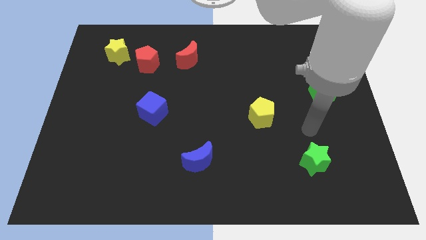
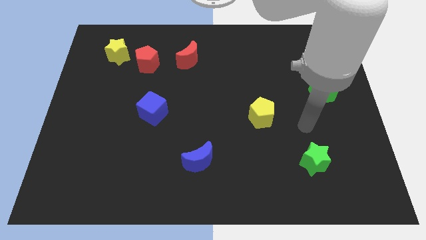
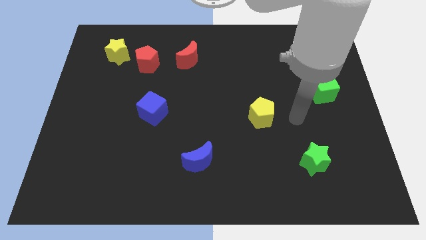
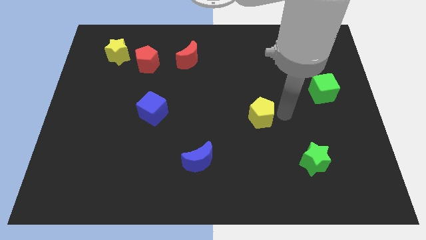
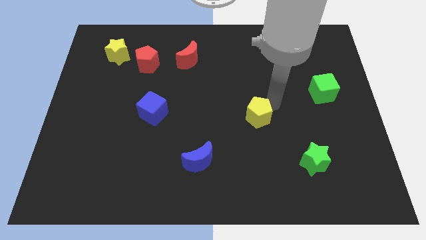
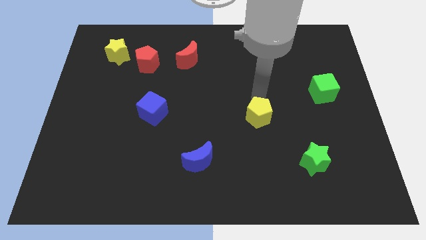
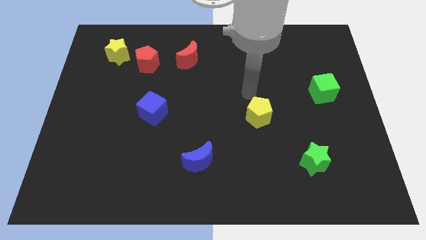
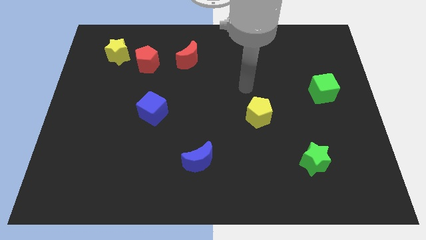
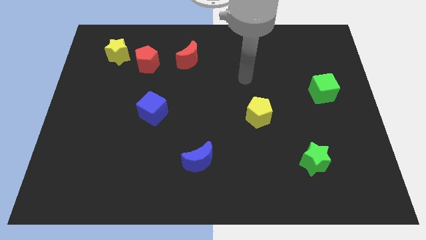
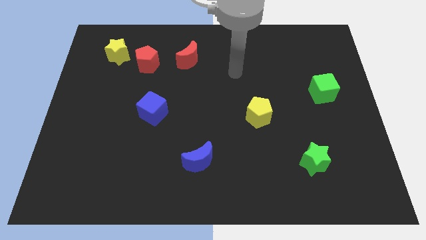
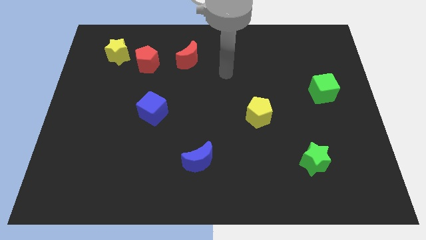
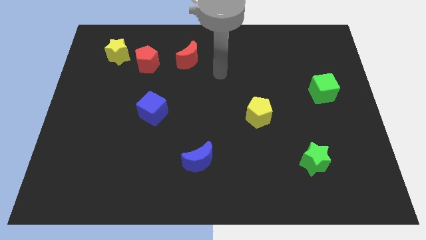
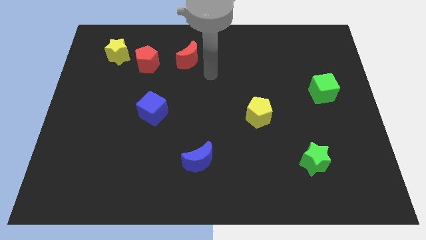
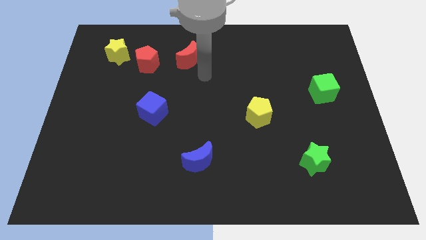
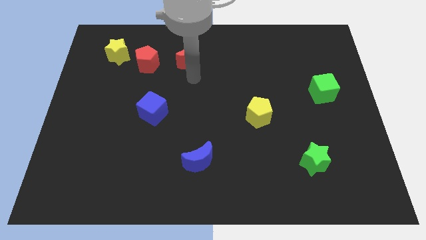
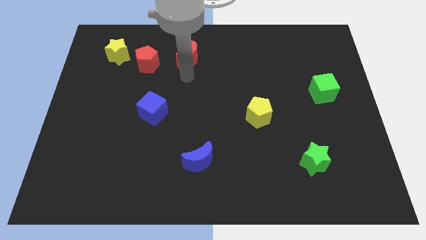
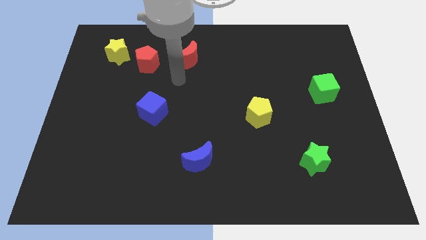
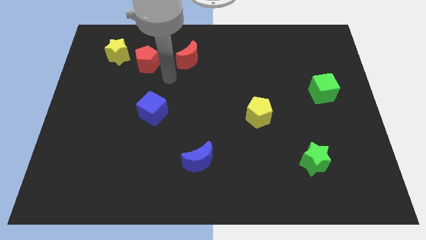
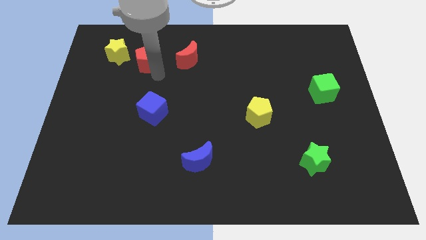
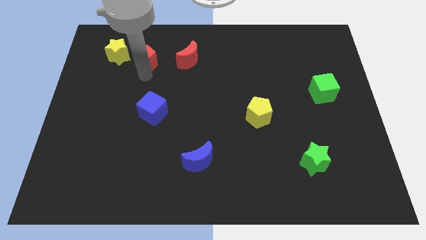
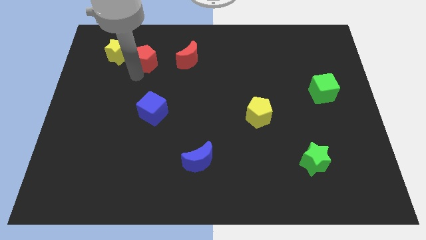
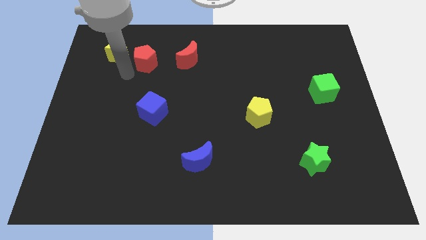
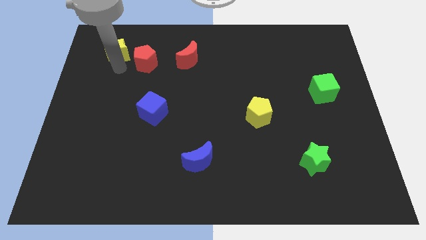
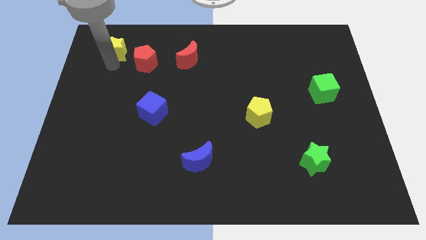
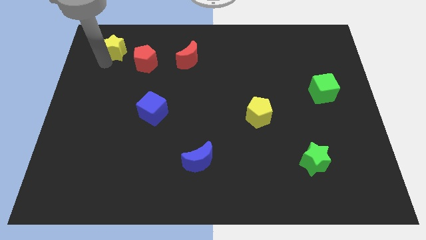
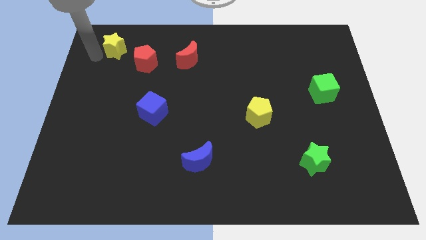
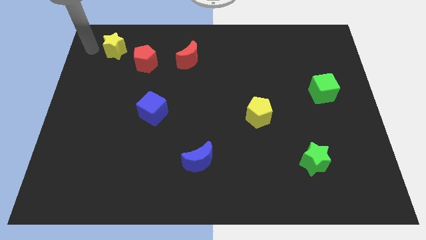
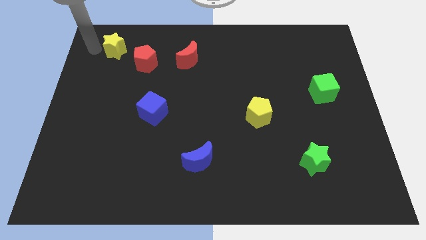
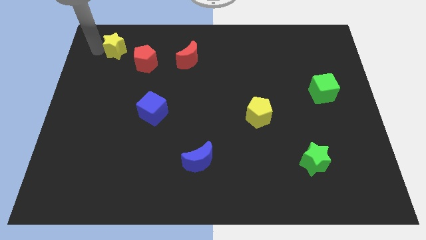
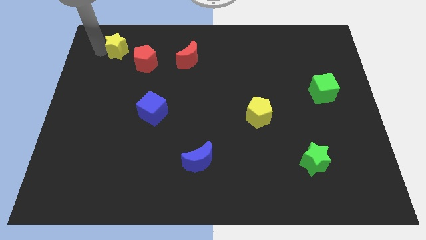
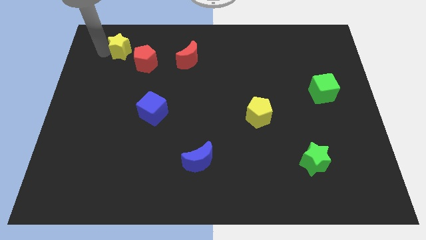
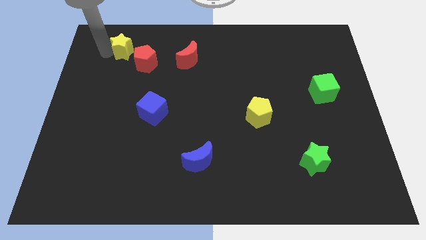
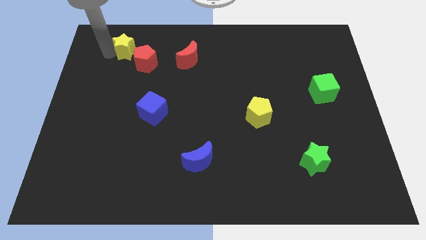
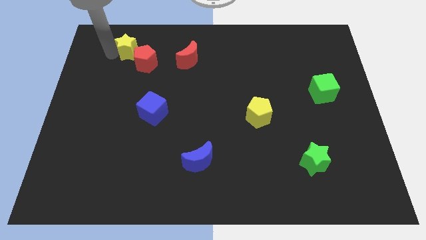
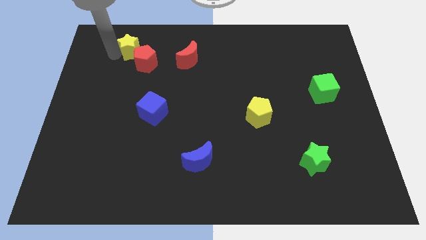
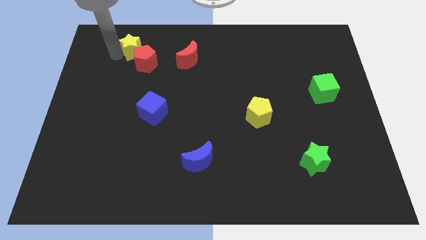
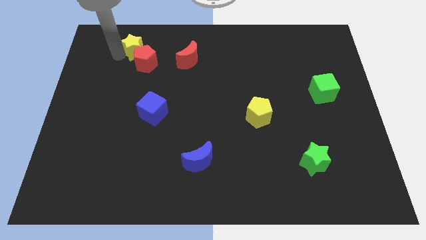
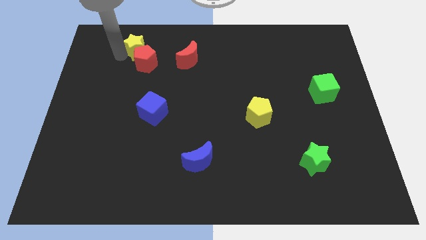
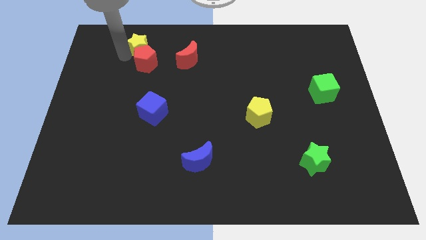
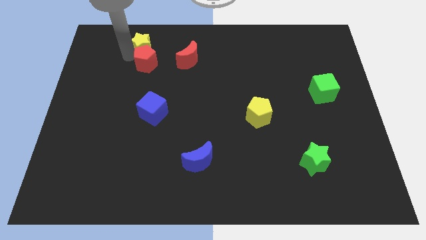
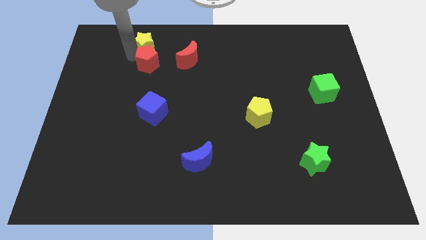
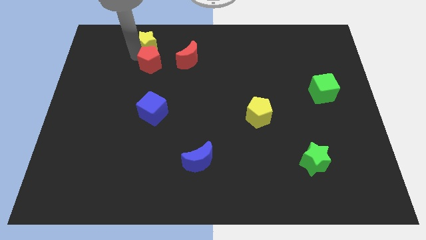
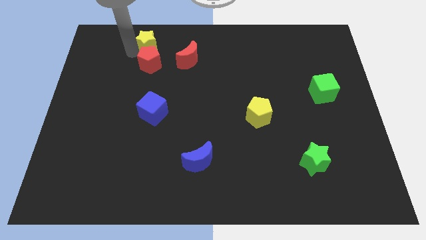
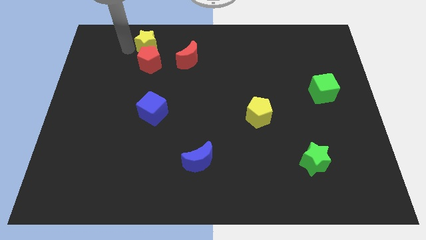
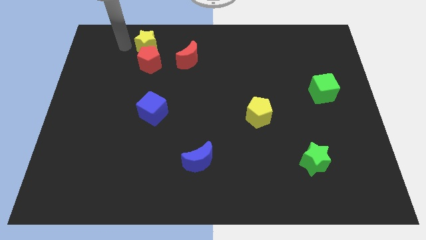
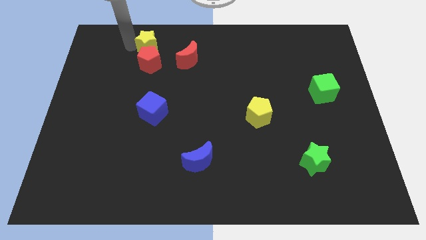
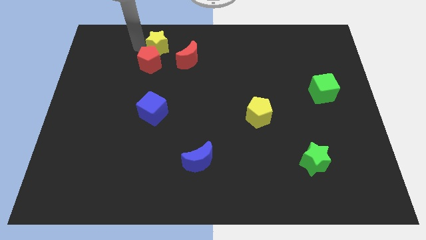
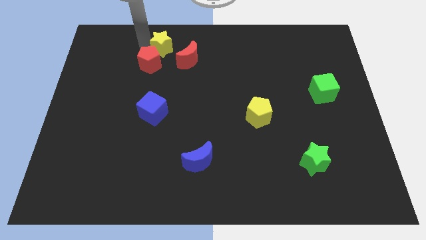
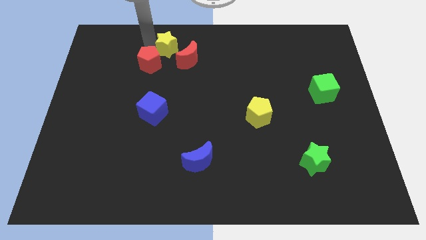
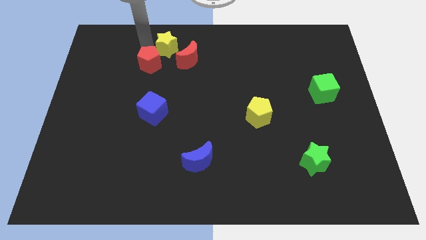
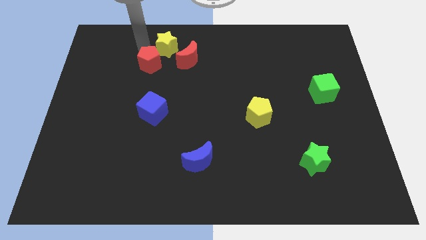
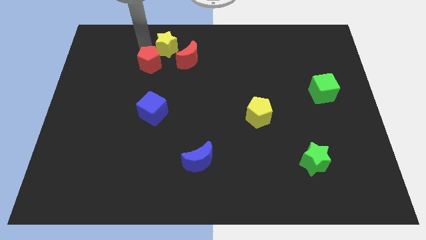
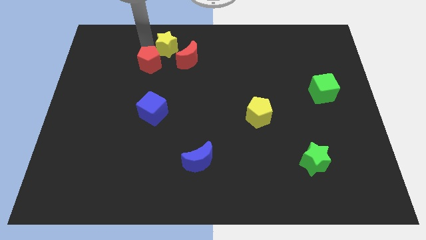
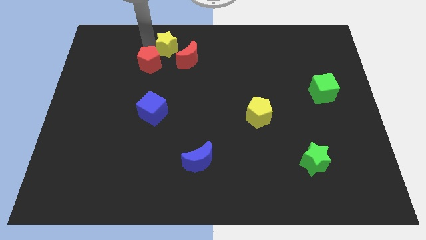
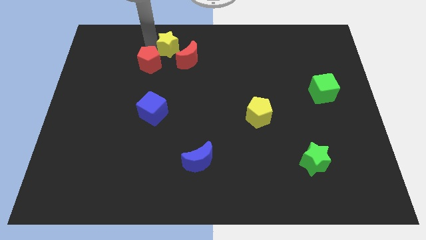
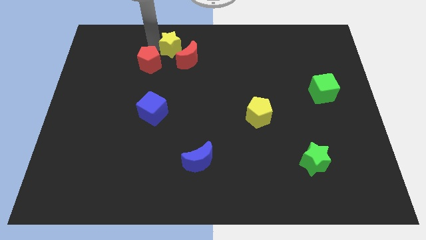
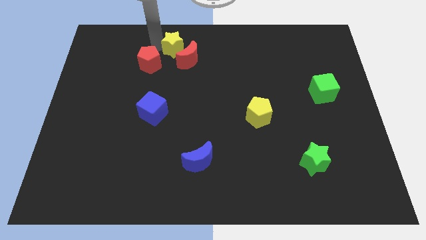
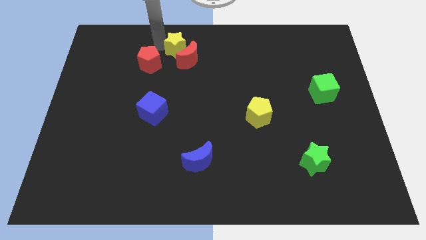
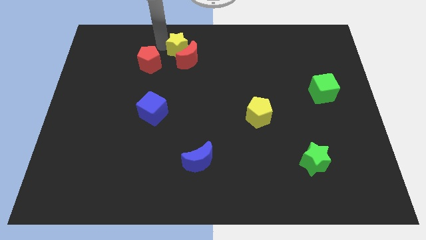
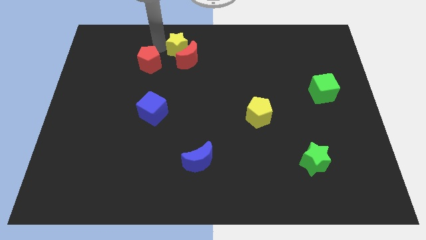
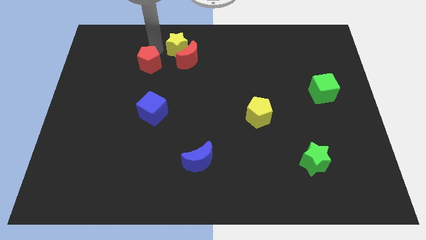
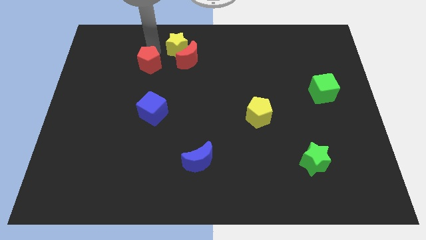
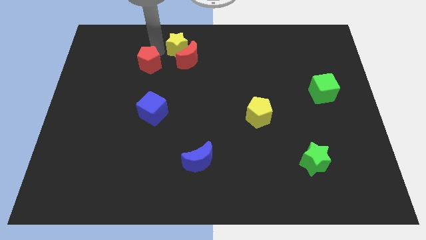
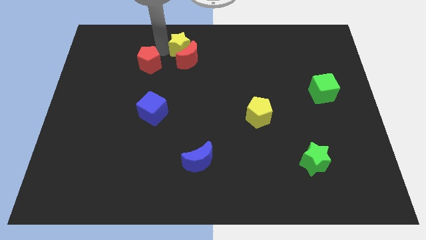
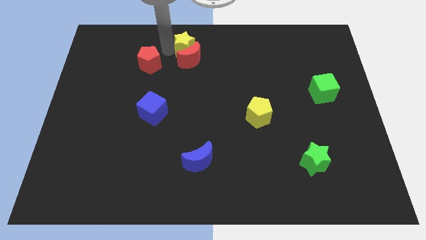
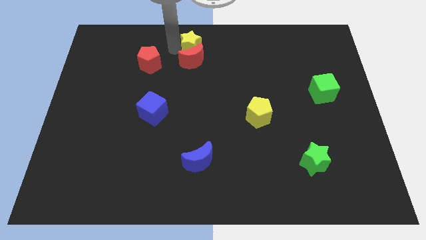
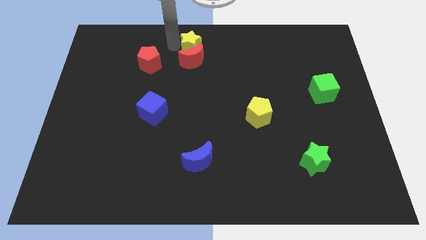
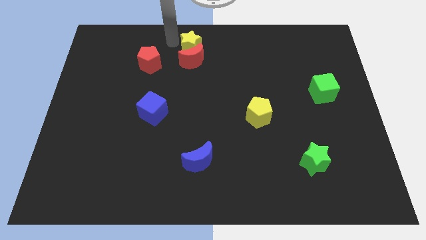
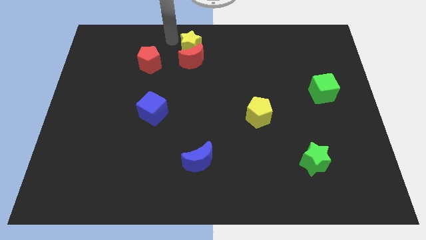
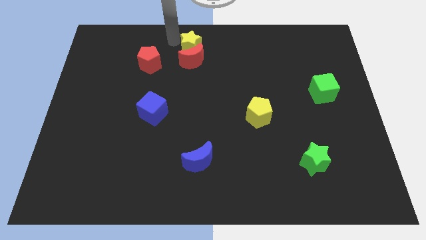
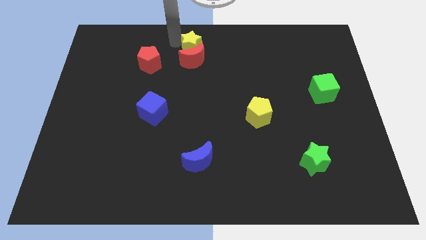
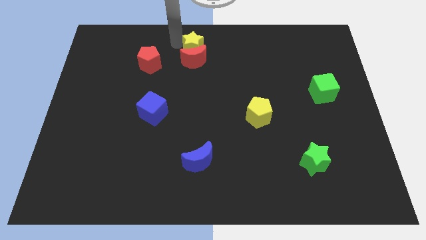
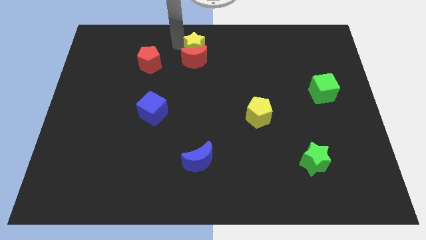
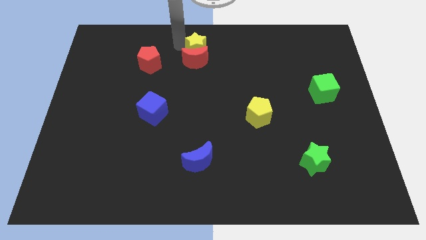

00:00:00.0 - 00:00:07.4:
move the yellow star just right of the red pentagon
